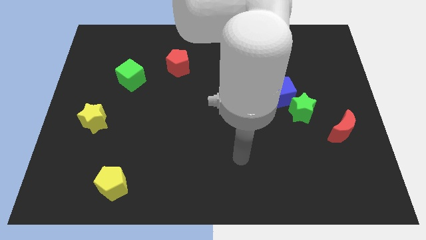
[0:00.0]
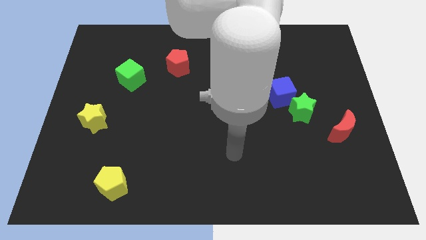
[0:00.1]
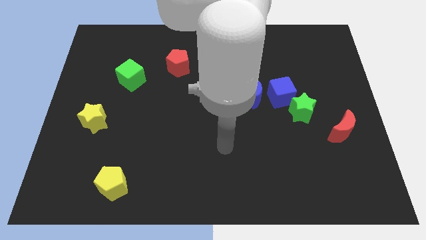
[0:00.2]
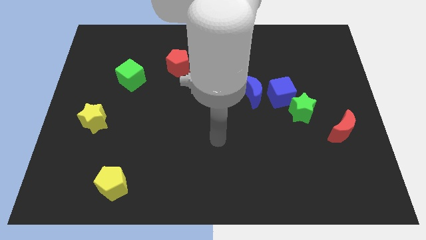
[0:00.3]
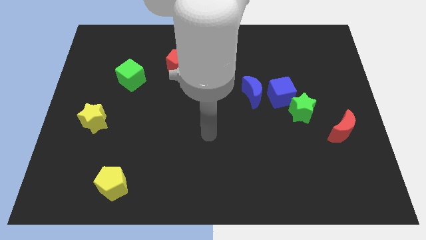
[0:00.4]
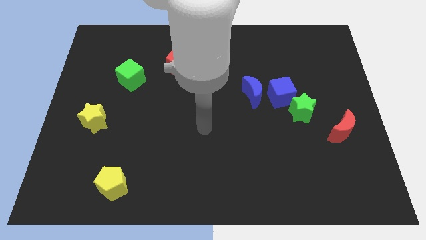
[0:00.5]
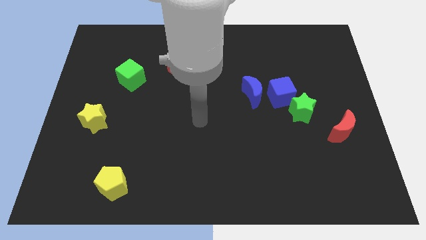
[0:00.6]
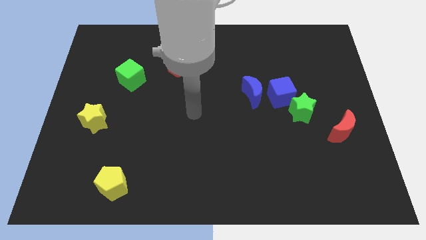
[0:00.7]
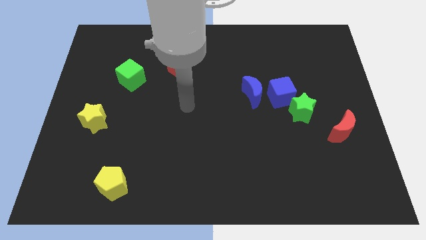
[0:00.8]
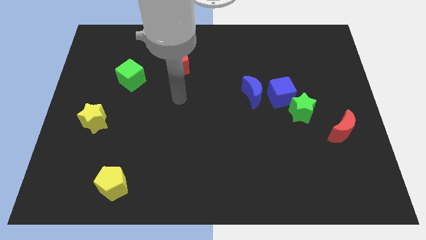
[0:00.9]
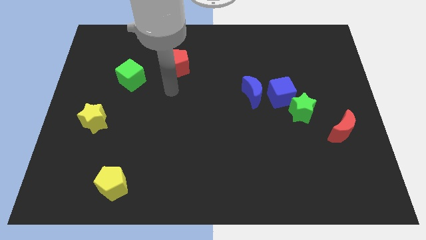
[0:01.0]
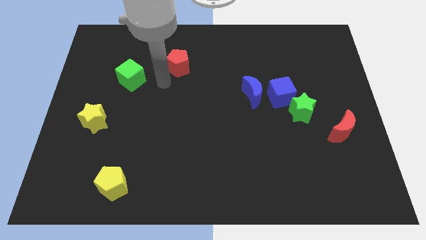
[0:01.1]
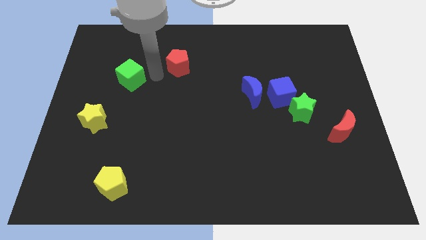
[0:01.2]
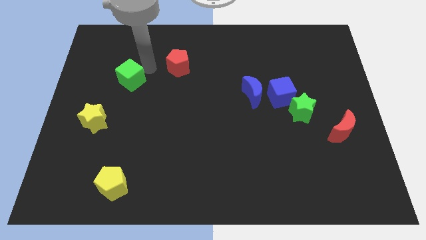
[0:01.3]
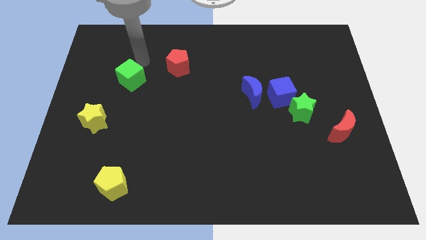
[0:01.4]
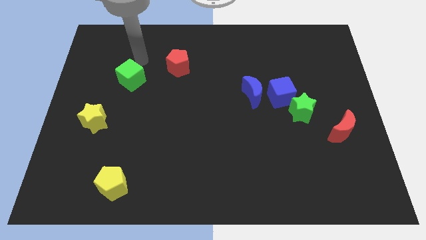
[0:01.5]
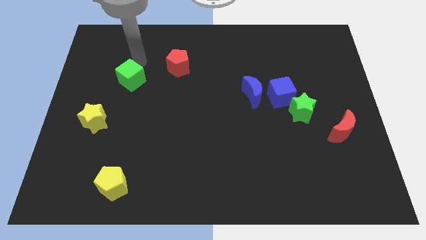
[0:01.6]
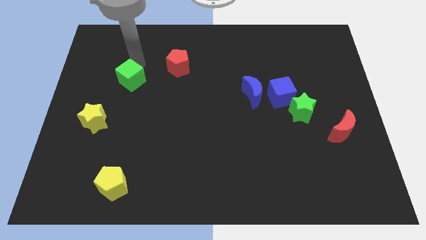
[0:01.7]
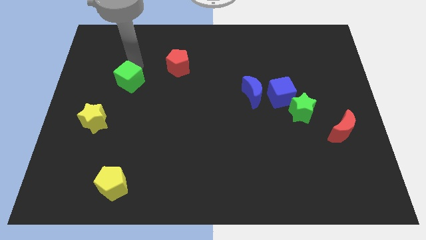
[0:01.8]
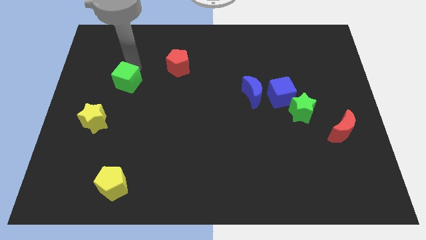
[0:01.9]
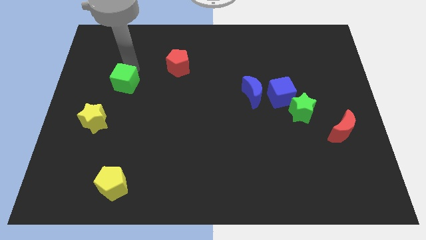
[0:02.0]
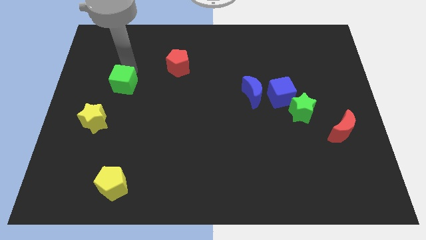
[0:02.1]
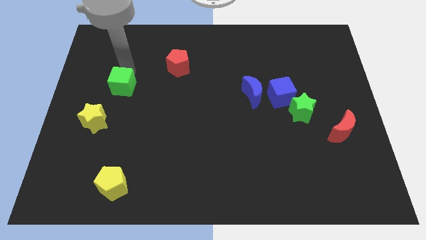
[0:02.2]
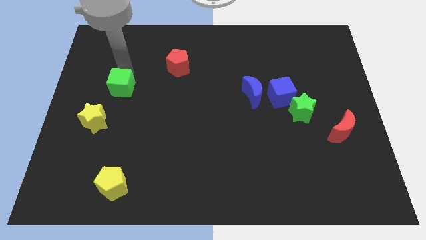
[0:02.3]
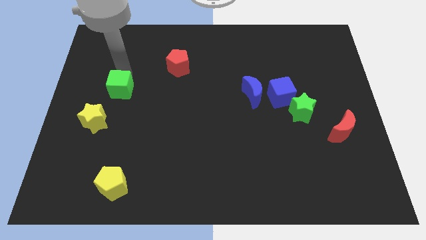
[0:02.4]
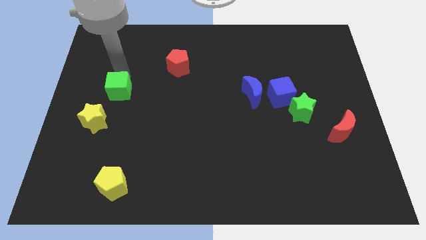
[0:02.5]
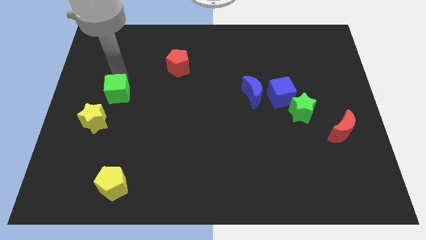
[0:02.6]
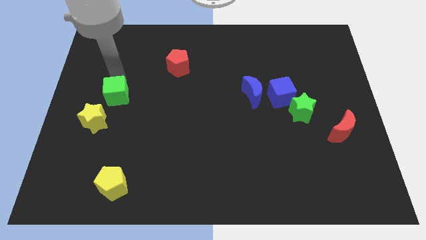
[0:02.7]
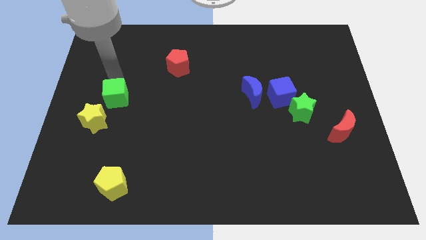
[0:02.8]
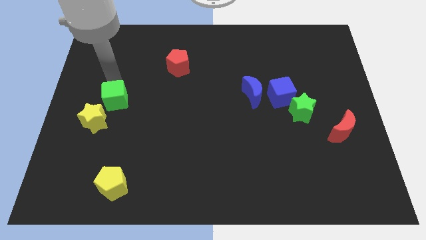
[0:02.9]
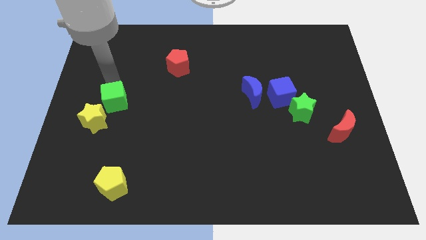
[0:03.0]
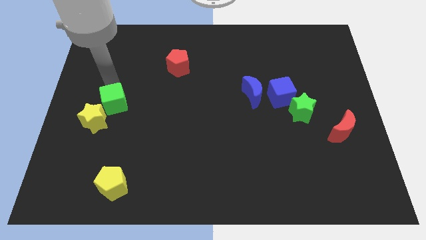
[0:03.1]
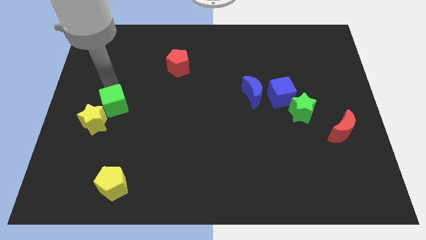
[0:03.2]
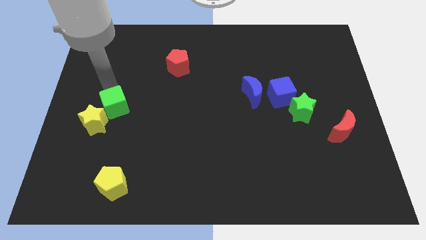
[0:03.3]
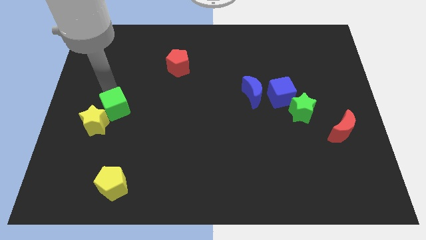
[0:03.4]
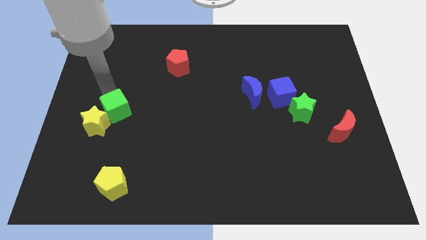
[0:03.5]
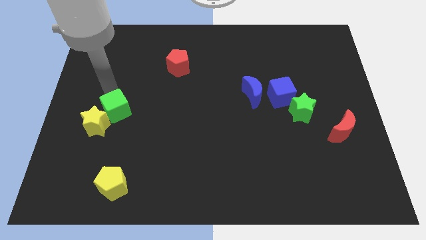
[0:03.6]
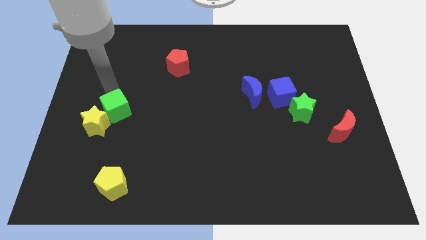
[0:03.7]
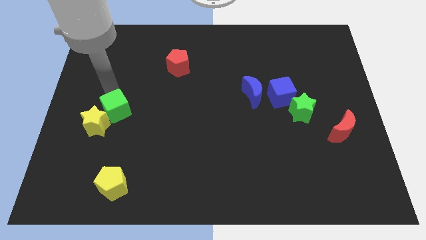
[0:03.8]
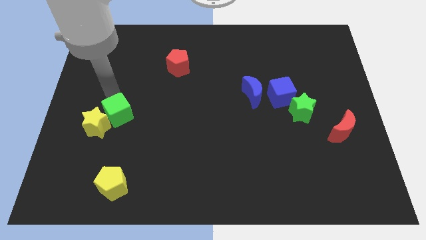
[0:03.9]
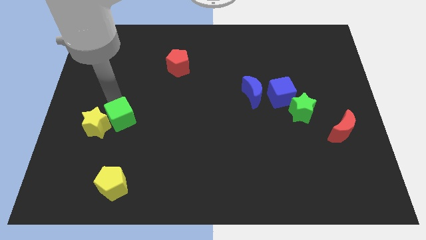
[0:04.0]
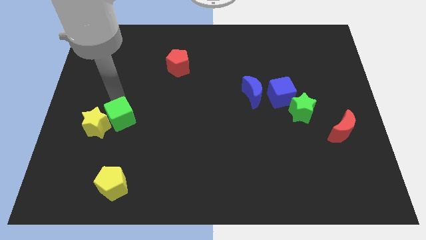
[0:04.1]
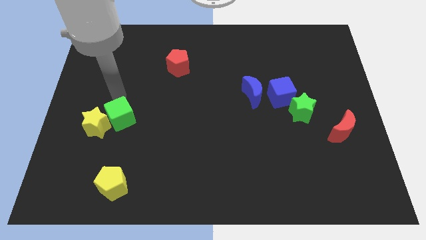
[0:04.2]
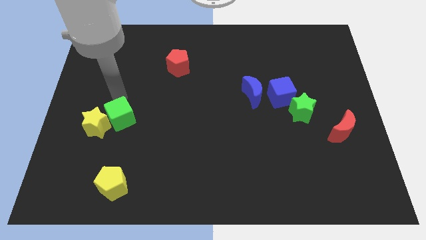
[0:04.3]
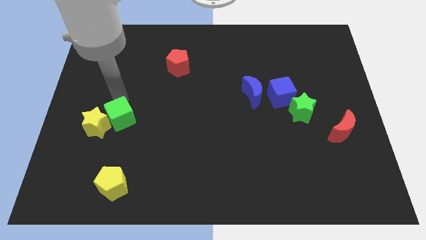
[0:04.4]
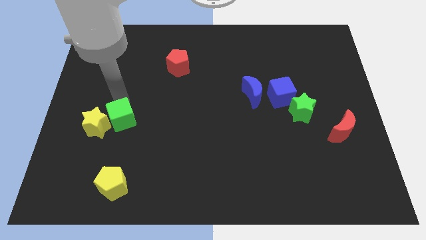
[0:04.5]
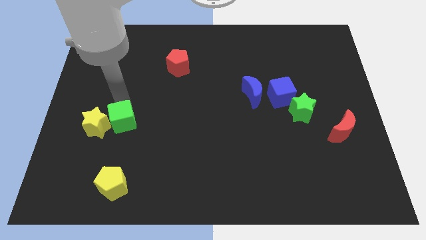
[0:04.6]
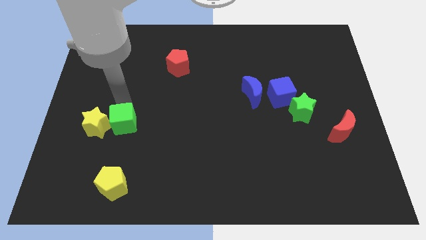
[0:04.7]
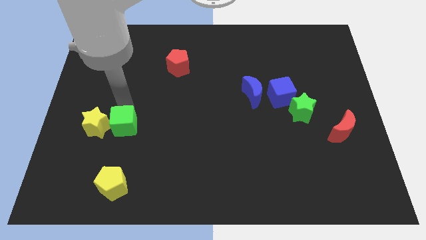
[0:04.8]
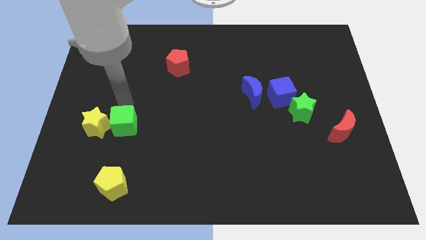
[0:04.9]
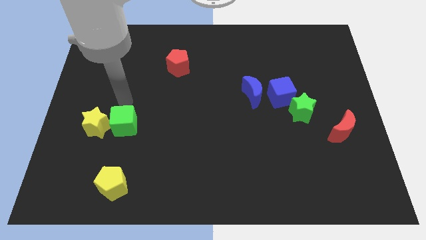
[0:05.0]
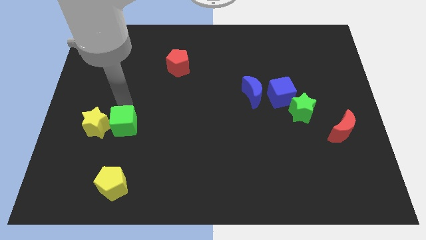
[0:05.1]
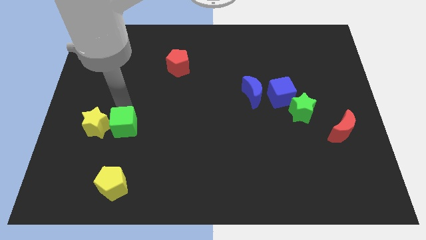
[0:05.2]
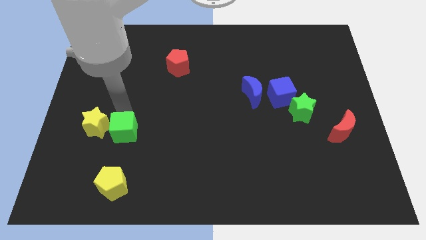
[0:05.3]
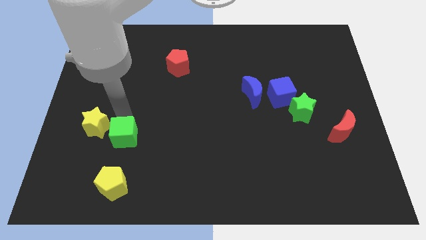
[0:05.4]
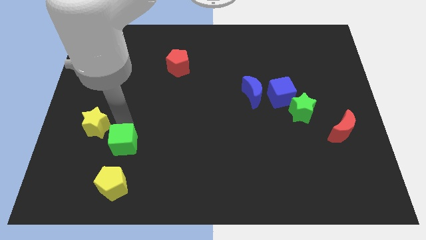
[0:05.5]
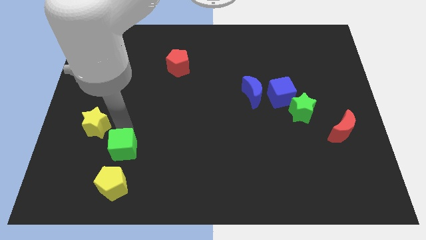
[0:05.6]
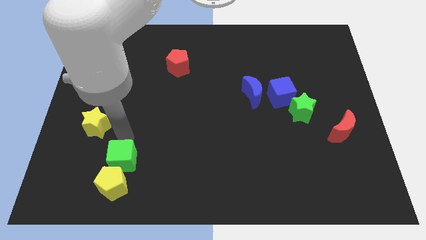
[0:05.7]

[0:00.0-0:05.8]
move the green cube to the yellow pentagon

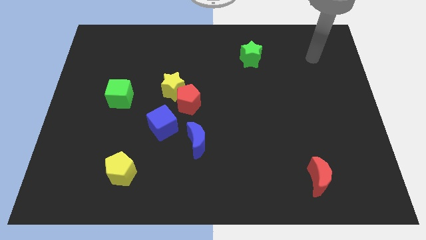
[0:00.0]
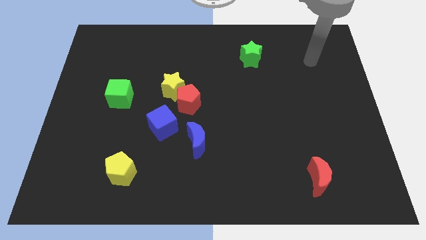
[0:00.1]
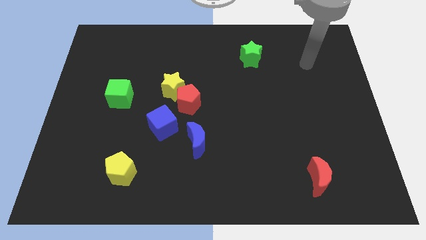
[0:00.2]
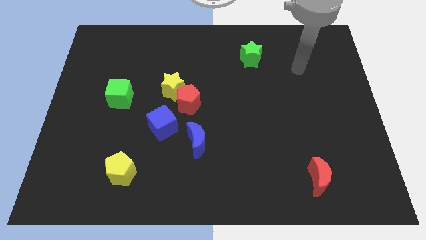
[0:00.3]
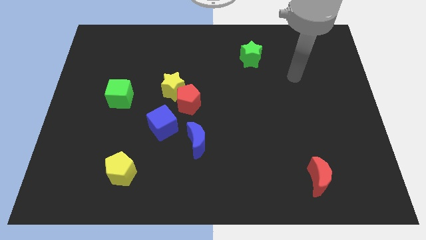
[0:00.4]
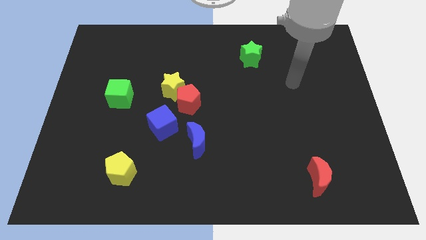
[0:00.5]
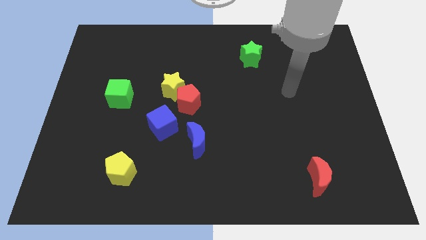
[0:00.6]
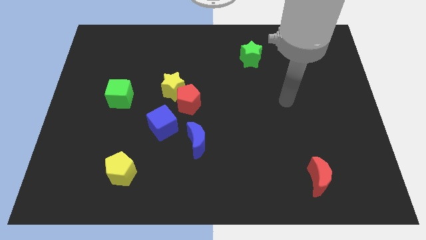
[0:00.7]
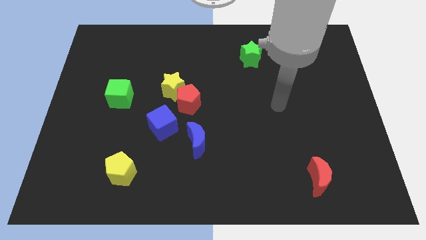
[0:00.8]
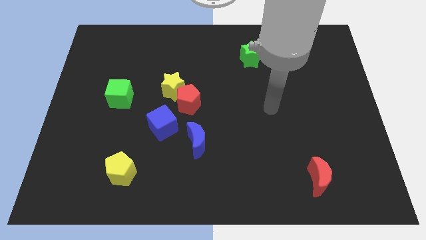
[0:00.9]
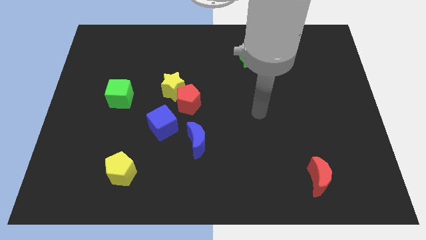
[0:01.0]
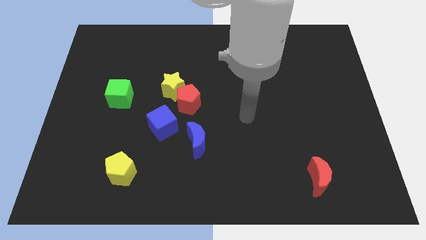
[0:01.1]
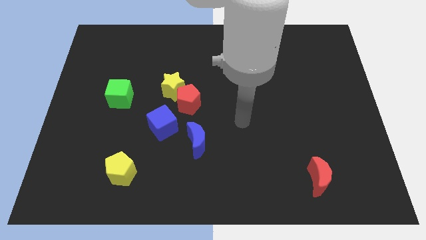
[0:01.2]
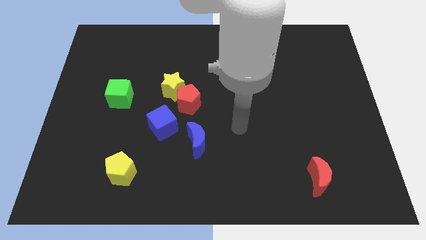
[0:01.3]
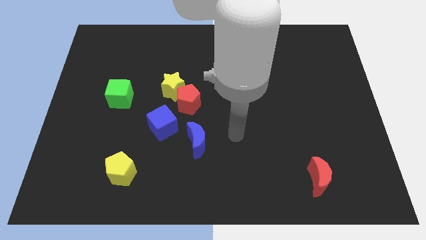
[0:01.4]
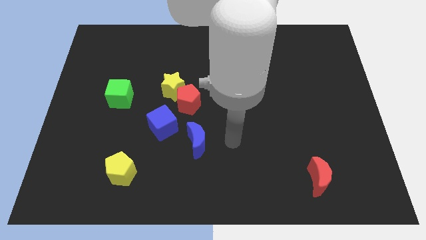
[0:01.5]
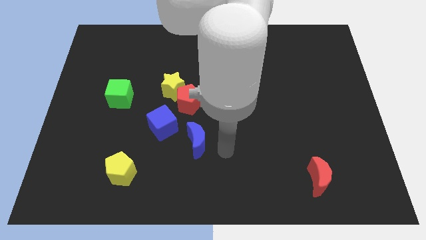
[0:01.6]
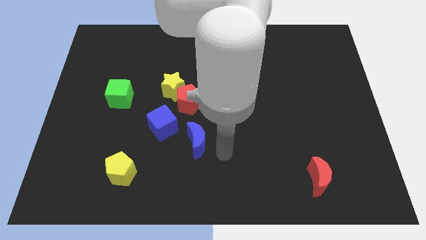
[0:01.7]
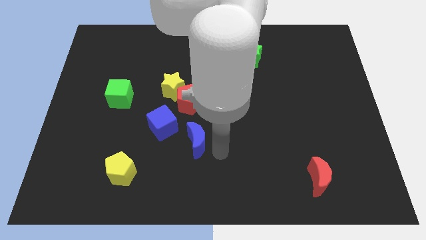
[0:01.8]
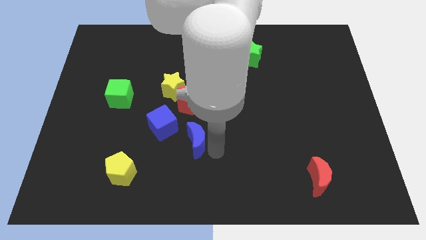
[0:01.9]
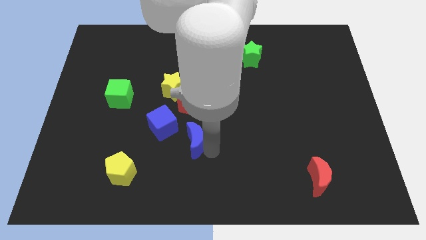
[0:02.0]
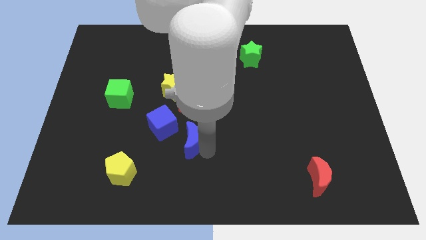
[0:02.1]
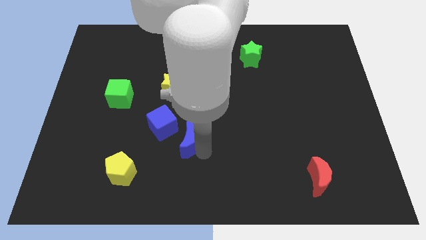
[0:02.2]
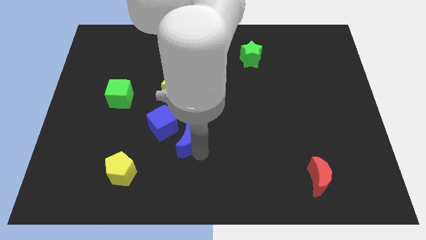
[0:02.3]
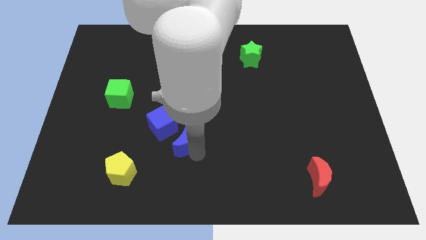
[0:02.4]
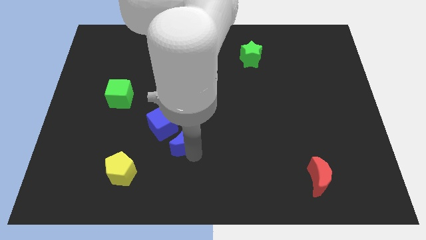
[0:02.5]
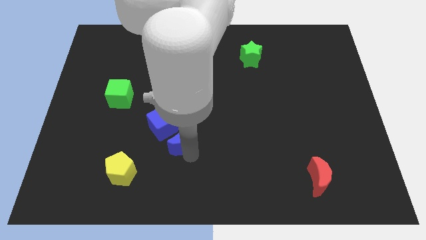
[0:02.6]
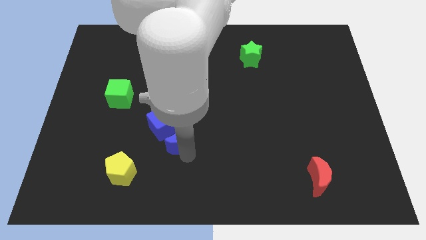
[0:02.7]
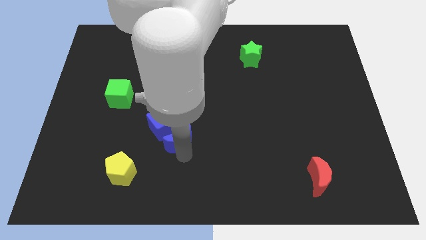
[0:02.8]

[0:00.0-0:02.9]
slide the blue moon close to the blue cube
